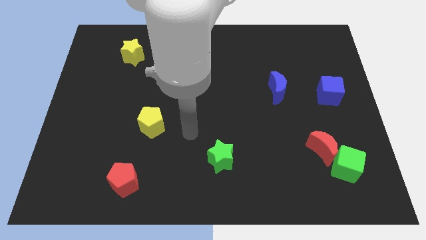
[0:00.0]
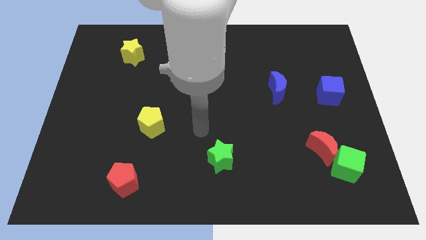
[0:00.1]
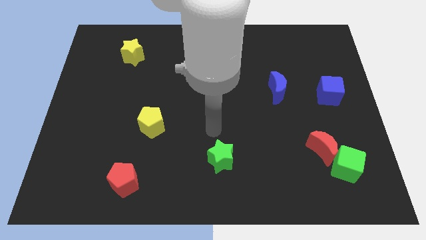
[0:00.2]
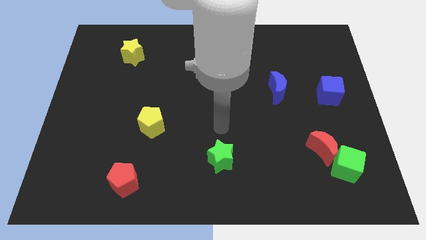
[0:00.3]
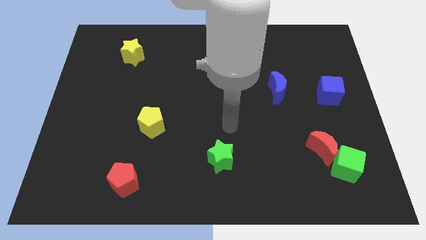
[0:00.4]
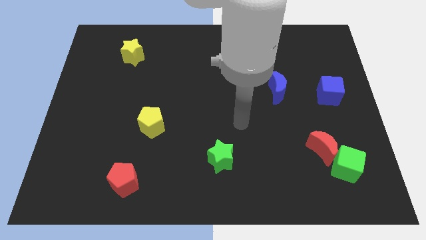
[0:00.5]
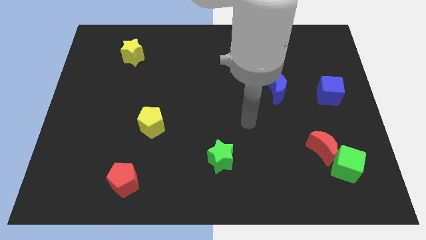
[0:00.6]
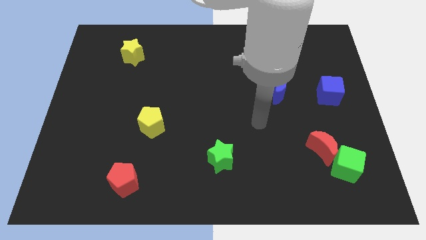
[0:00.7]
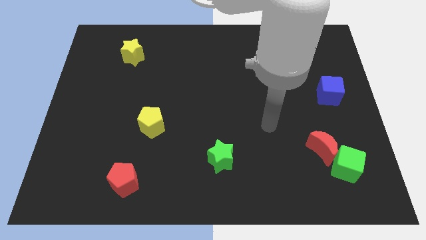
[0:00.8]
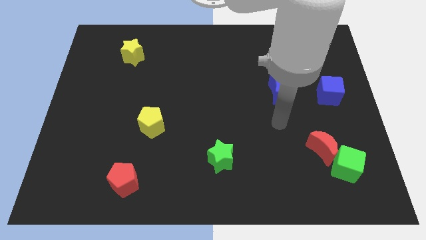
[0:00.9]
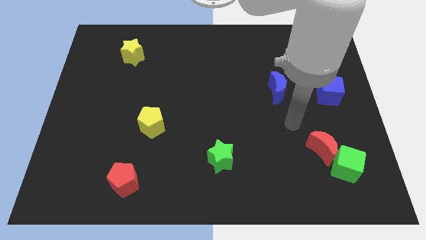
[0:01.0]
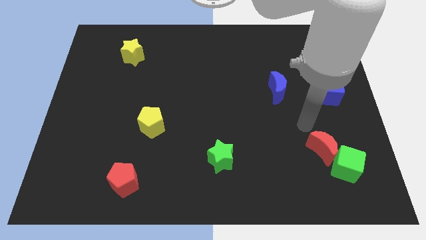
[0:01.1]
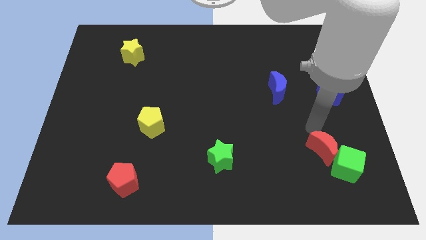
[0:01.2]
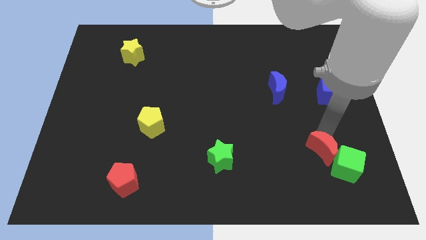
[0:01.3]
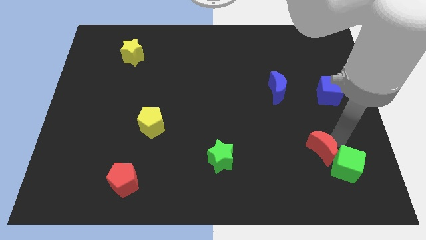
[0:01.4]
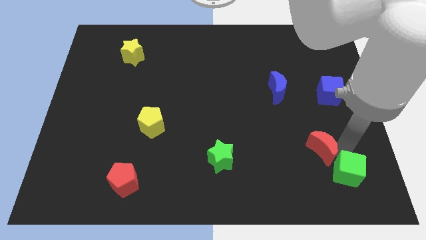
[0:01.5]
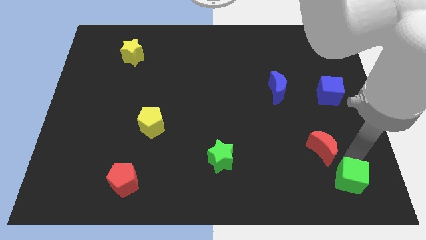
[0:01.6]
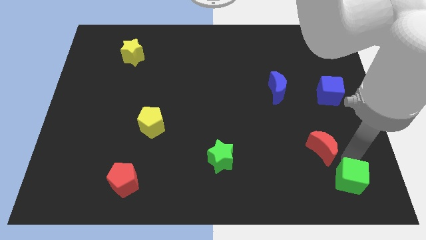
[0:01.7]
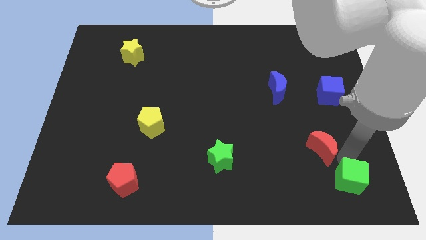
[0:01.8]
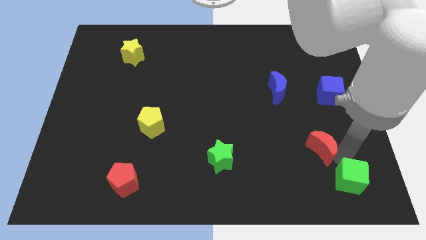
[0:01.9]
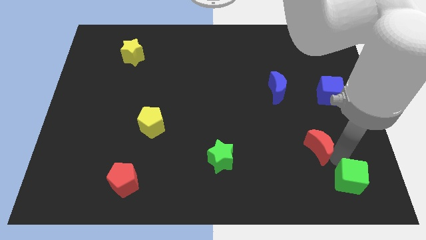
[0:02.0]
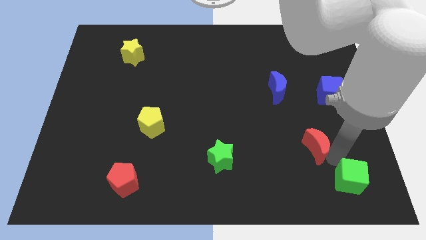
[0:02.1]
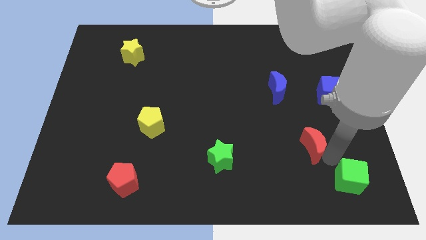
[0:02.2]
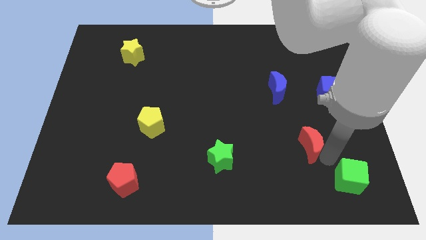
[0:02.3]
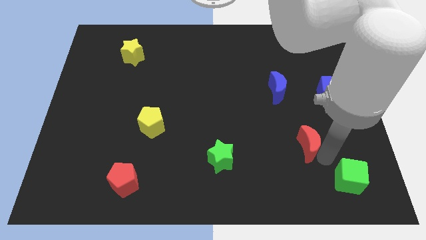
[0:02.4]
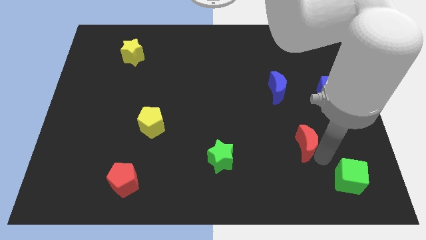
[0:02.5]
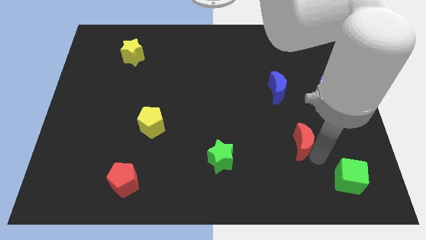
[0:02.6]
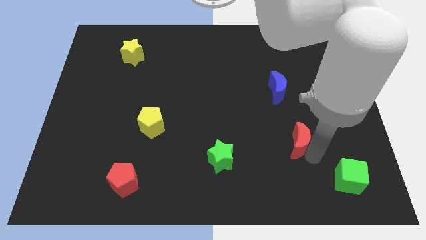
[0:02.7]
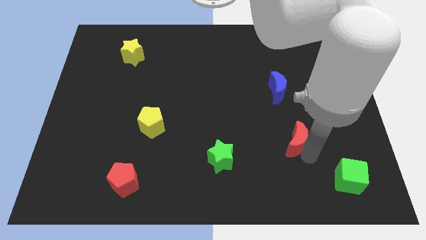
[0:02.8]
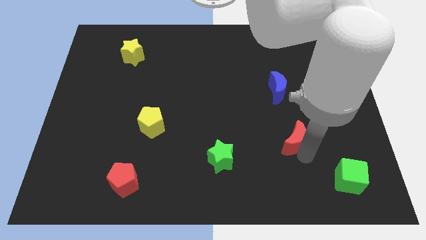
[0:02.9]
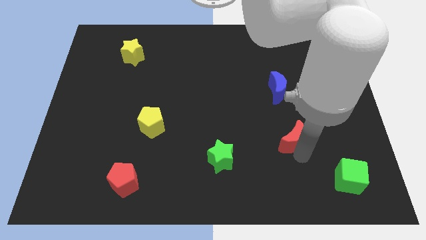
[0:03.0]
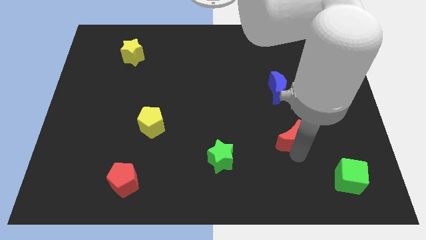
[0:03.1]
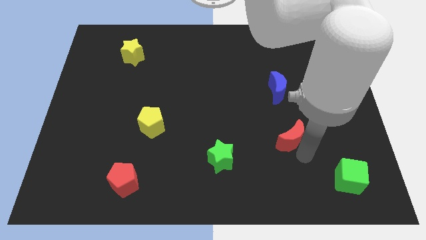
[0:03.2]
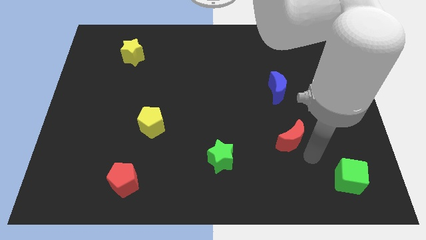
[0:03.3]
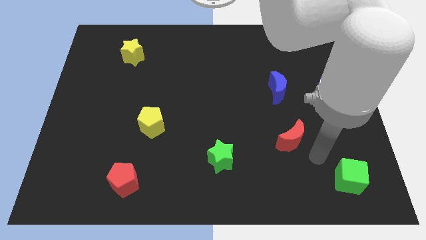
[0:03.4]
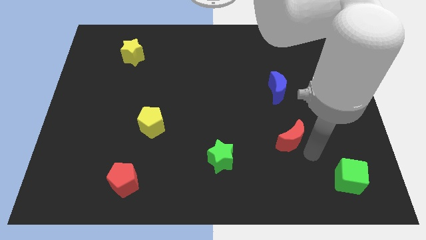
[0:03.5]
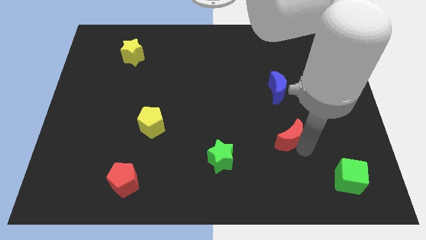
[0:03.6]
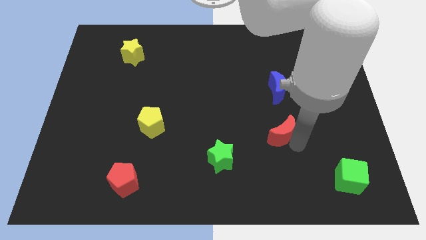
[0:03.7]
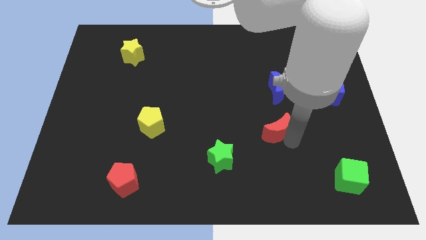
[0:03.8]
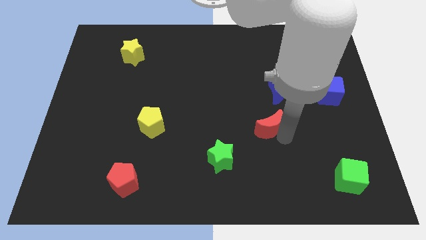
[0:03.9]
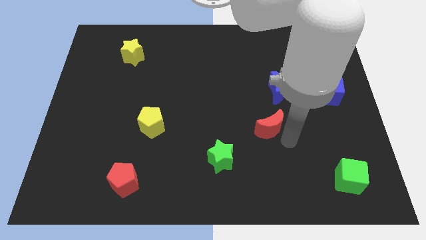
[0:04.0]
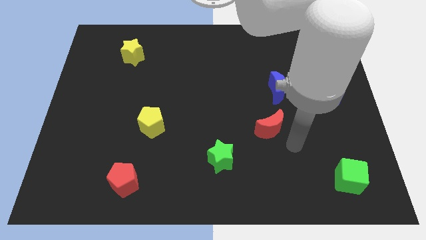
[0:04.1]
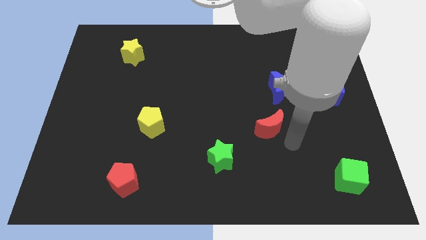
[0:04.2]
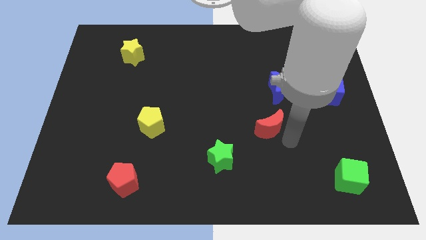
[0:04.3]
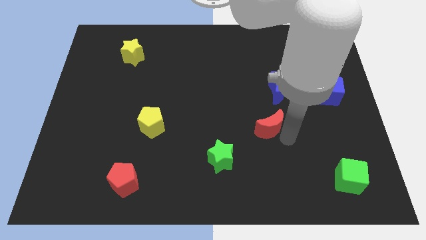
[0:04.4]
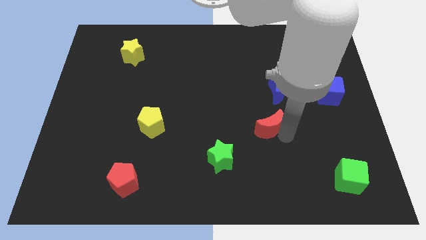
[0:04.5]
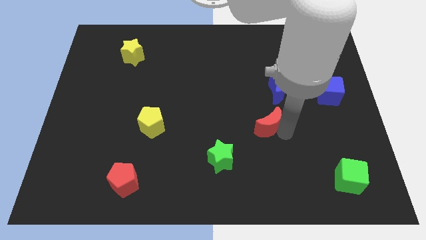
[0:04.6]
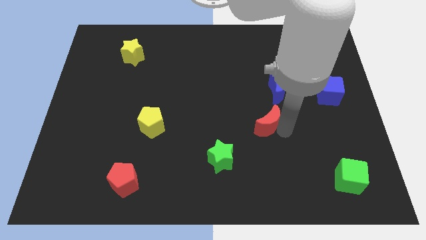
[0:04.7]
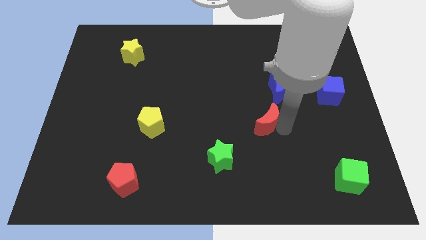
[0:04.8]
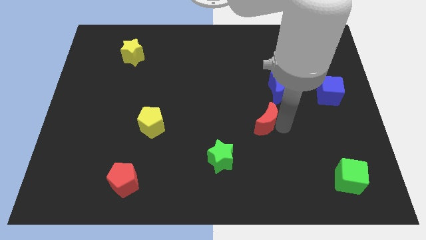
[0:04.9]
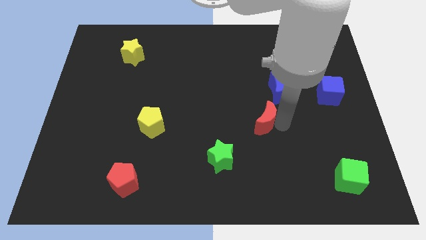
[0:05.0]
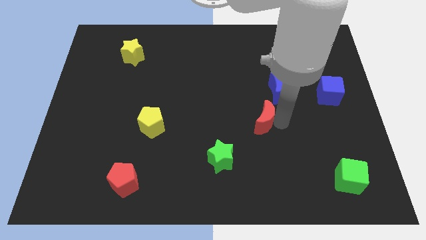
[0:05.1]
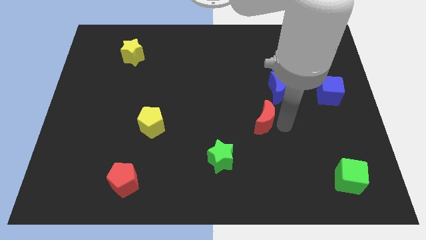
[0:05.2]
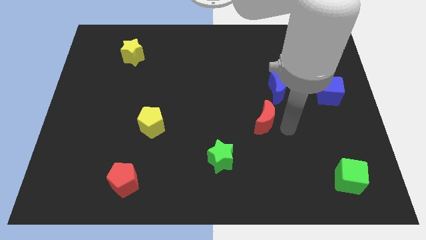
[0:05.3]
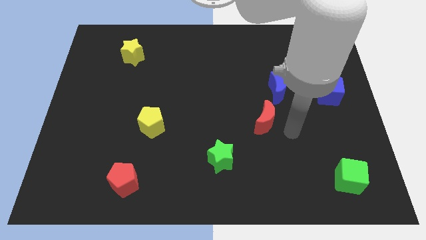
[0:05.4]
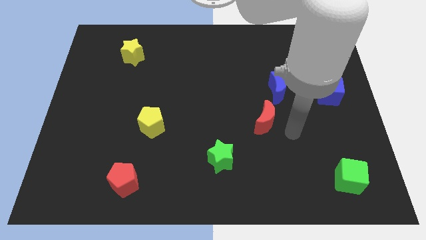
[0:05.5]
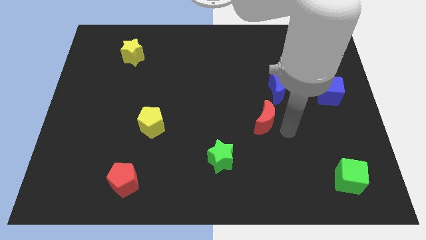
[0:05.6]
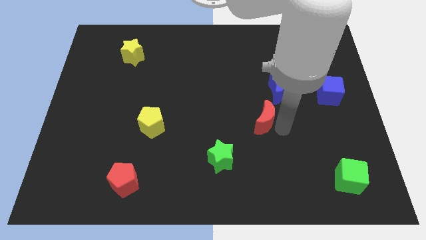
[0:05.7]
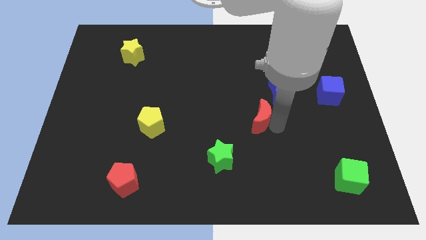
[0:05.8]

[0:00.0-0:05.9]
push the red moon to the middle

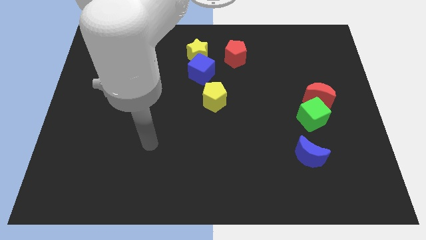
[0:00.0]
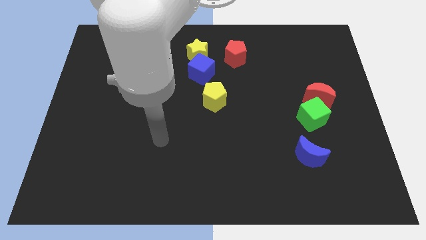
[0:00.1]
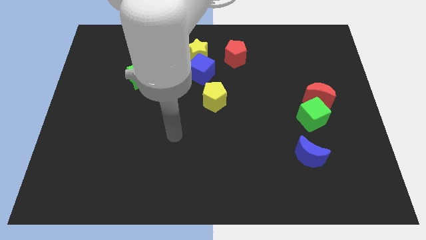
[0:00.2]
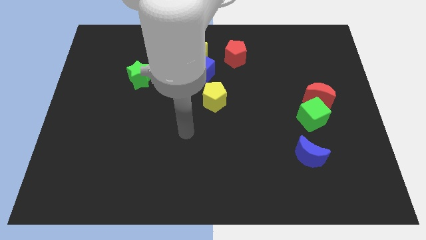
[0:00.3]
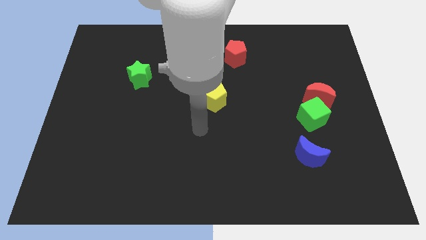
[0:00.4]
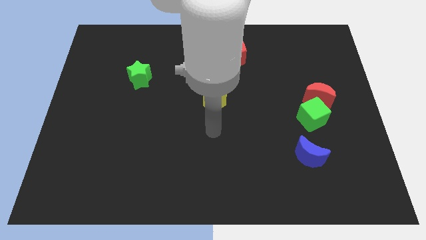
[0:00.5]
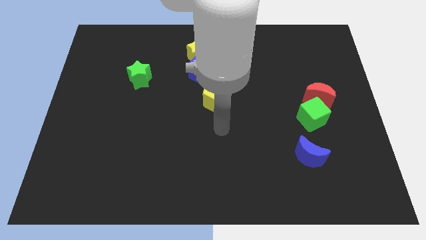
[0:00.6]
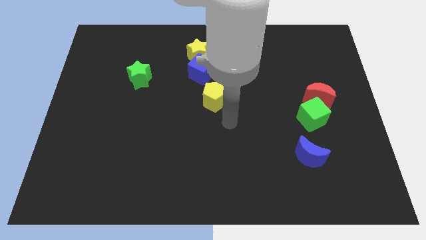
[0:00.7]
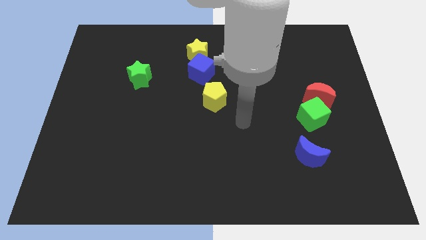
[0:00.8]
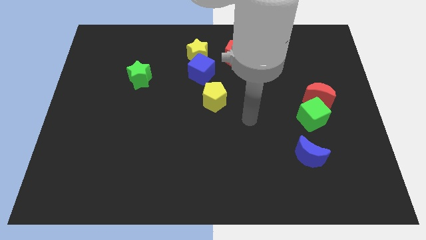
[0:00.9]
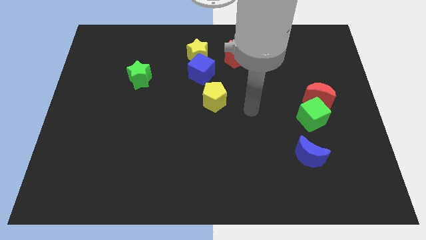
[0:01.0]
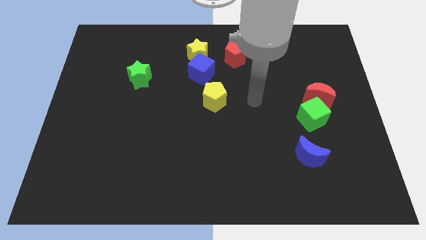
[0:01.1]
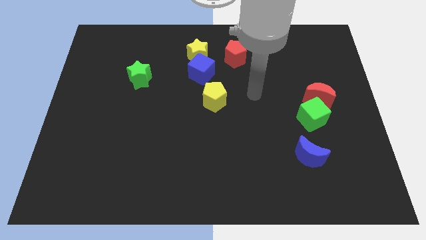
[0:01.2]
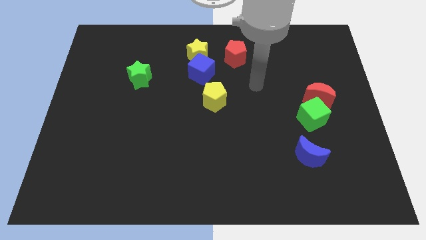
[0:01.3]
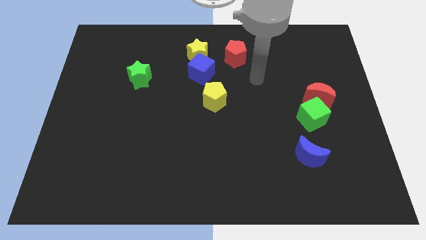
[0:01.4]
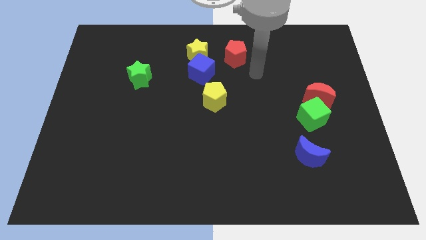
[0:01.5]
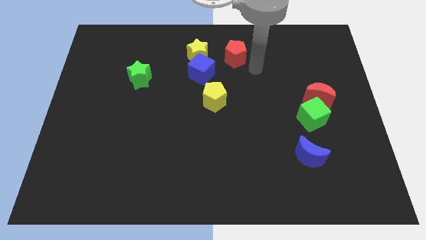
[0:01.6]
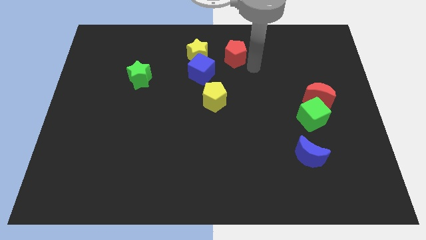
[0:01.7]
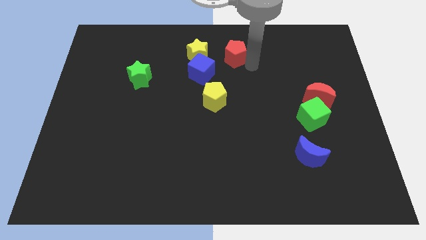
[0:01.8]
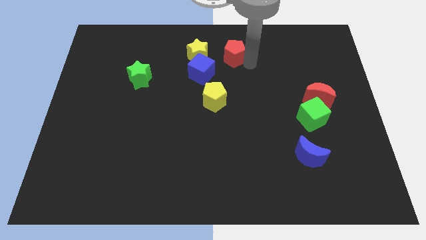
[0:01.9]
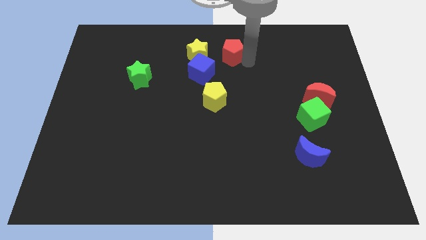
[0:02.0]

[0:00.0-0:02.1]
slide the red pentagon to the top side
